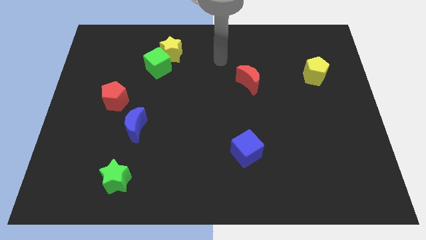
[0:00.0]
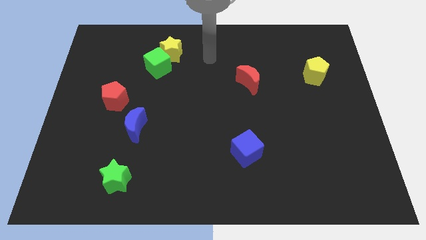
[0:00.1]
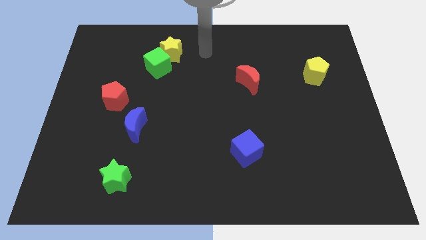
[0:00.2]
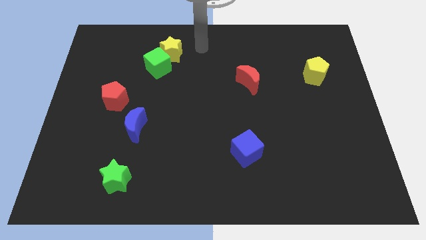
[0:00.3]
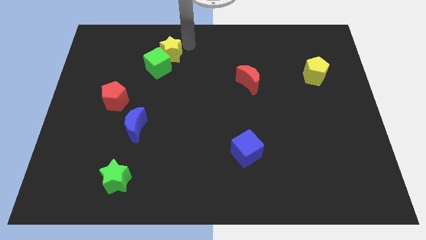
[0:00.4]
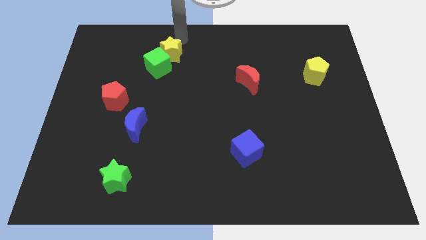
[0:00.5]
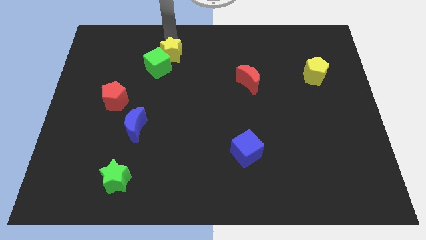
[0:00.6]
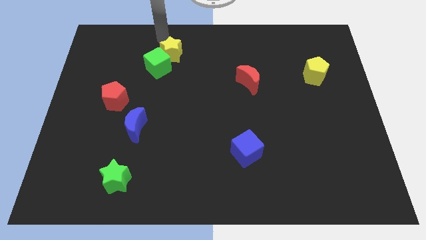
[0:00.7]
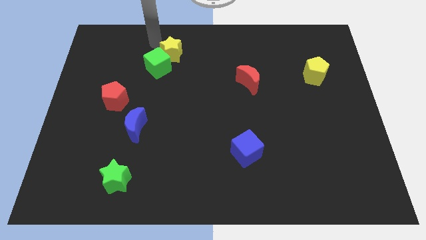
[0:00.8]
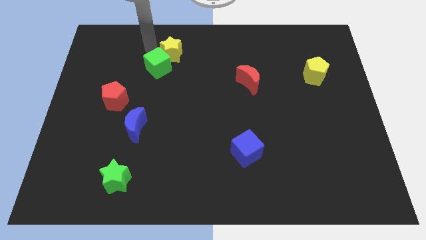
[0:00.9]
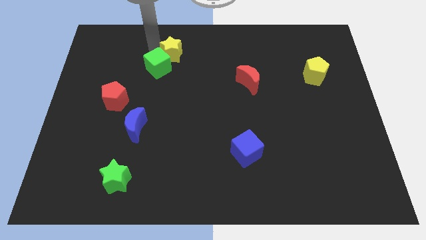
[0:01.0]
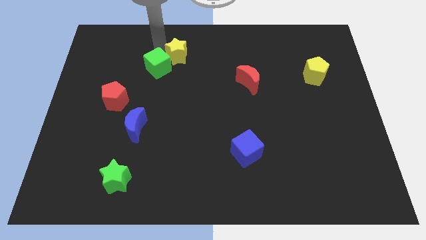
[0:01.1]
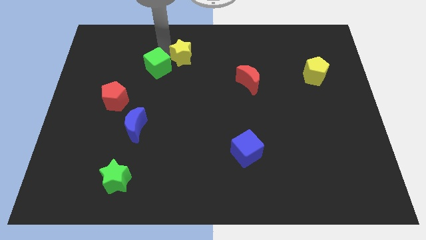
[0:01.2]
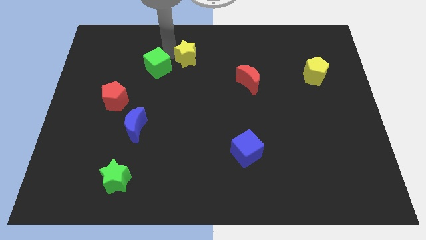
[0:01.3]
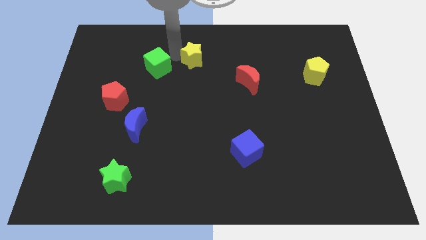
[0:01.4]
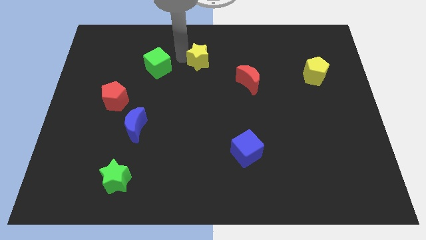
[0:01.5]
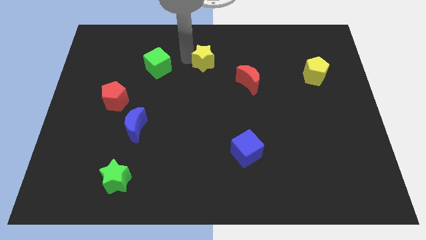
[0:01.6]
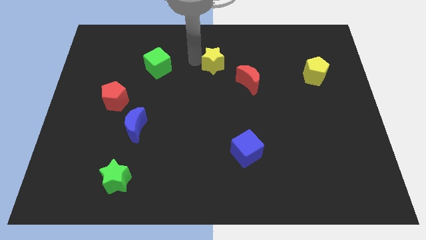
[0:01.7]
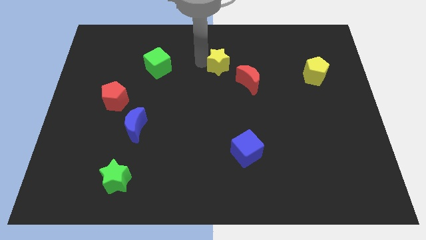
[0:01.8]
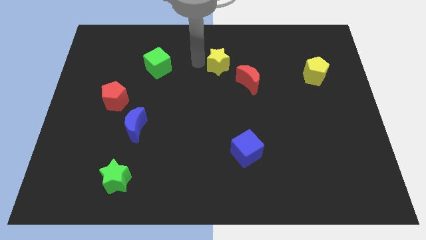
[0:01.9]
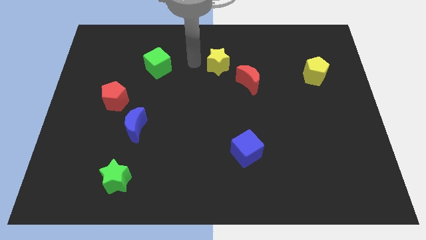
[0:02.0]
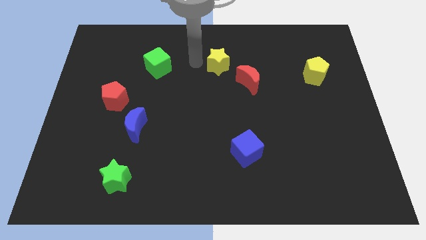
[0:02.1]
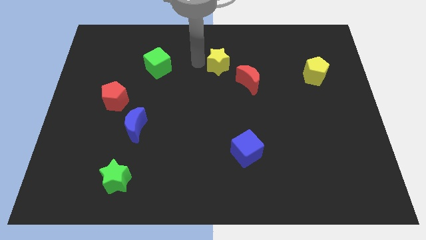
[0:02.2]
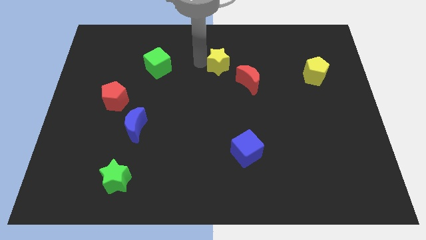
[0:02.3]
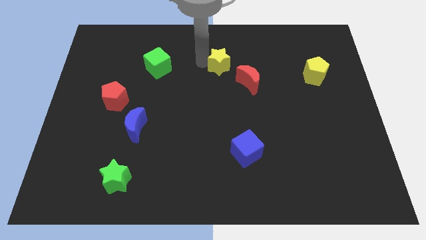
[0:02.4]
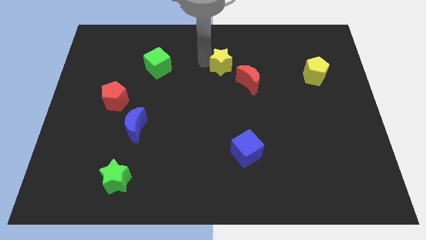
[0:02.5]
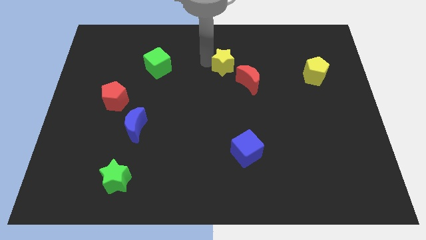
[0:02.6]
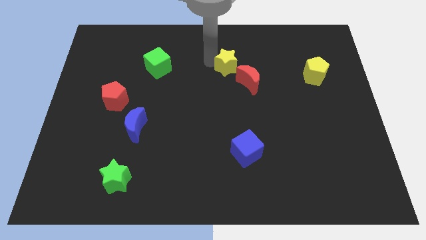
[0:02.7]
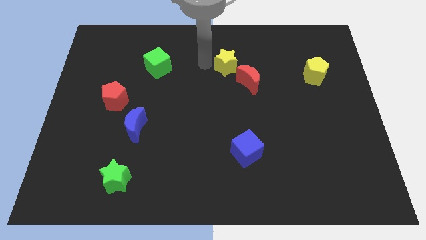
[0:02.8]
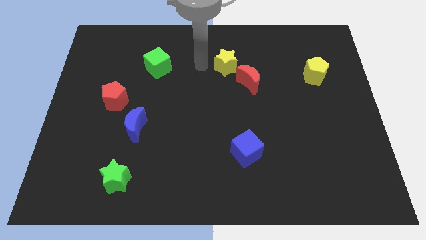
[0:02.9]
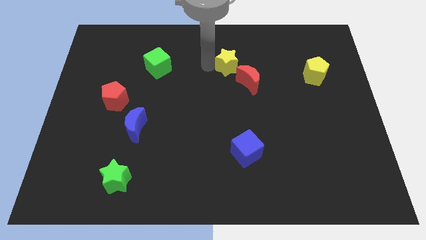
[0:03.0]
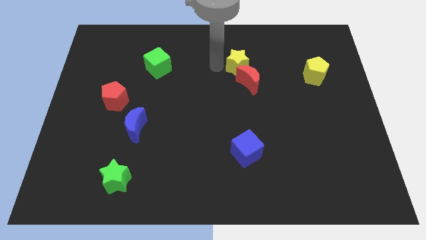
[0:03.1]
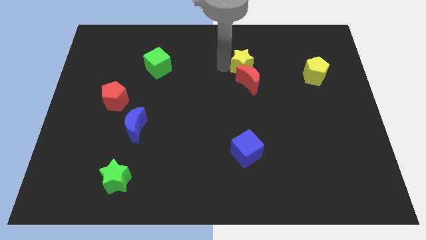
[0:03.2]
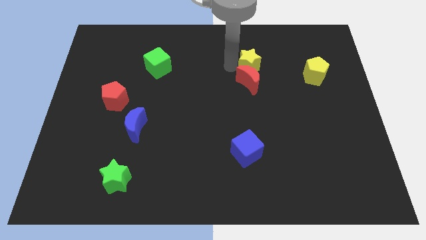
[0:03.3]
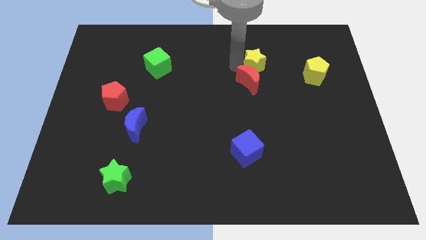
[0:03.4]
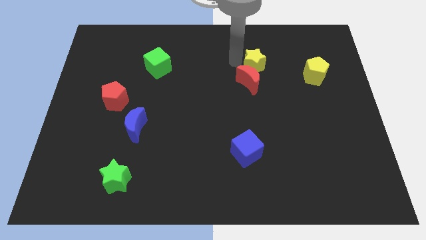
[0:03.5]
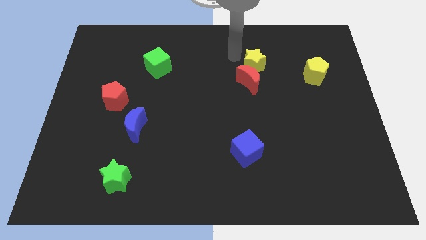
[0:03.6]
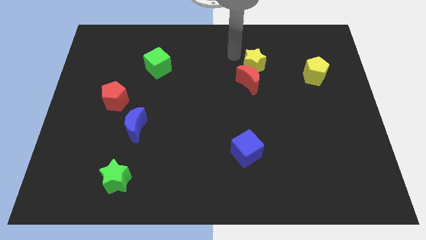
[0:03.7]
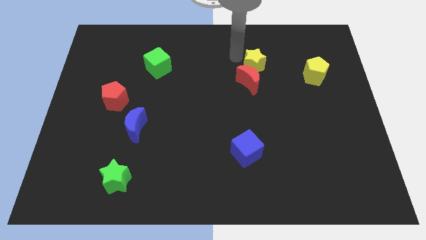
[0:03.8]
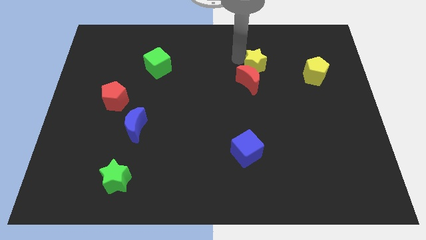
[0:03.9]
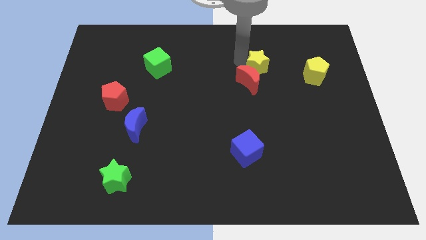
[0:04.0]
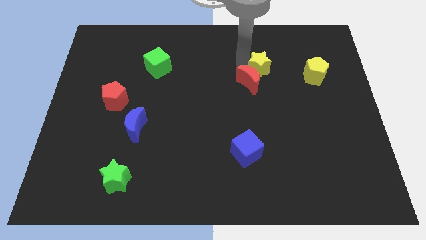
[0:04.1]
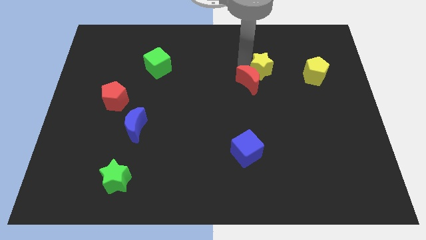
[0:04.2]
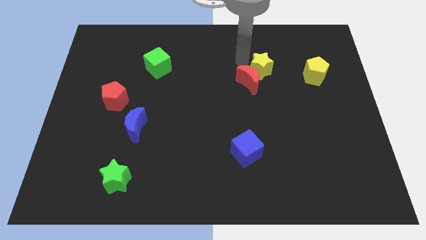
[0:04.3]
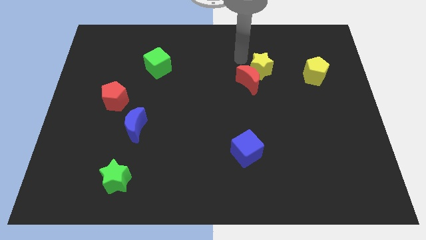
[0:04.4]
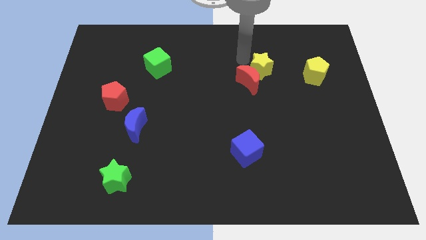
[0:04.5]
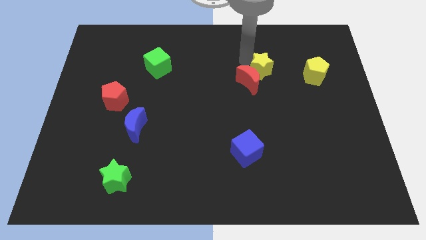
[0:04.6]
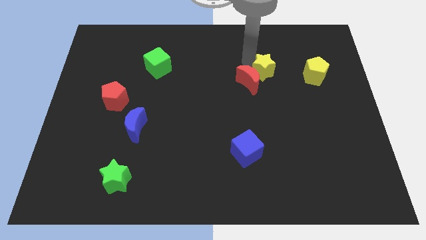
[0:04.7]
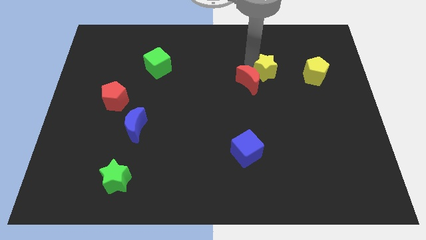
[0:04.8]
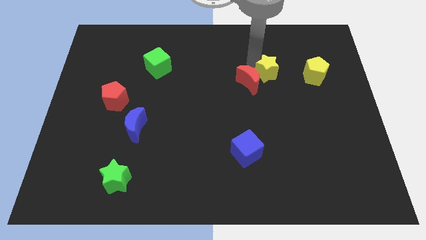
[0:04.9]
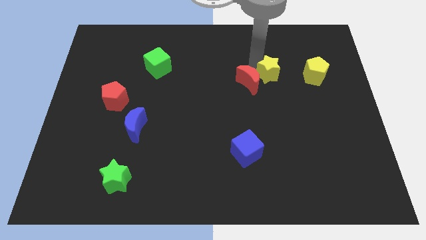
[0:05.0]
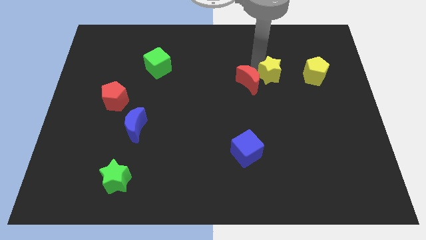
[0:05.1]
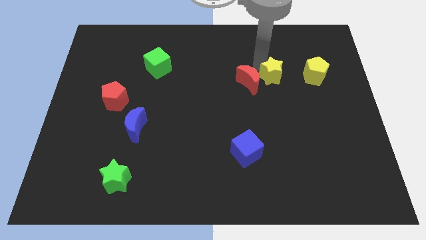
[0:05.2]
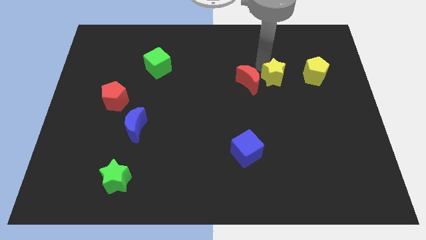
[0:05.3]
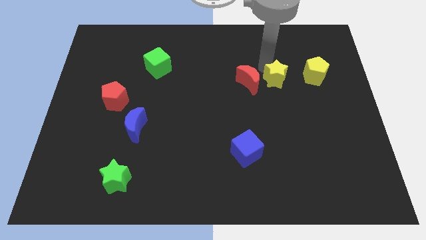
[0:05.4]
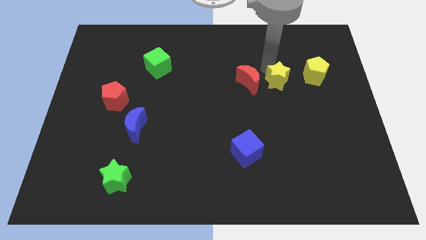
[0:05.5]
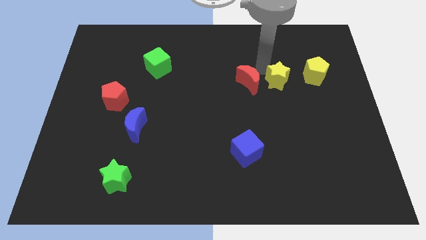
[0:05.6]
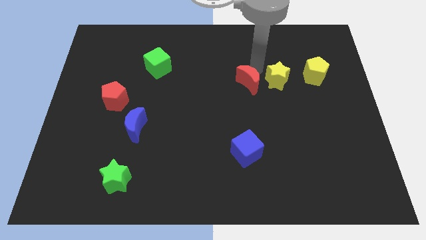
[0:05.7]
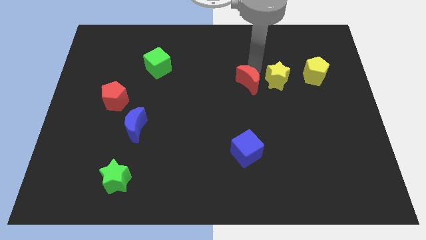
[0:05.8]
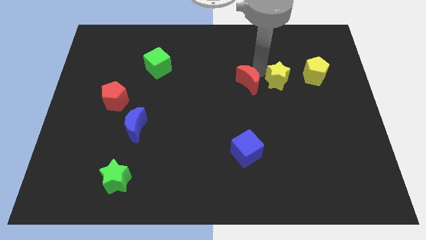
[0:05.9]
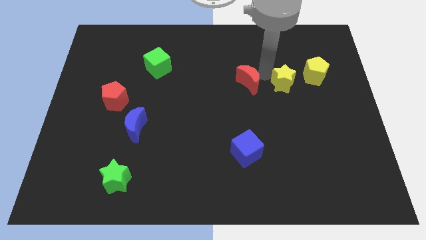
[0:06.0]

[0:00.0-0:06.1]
push the yellow star to the bottom left side of the yellow pentagon

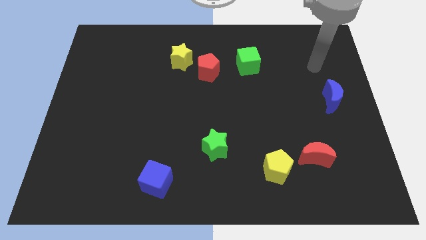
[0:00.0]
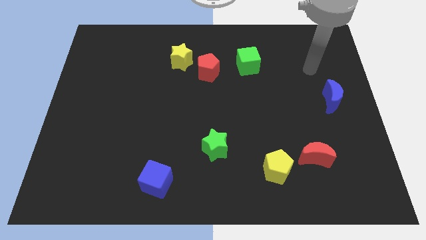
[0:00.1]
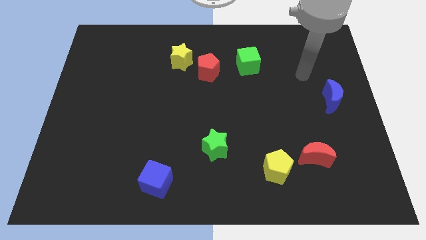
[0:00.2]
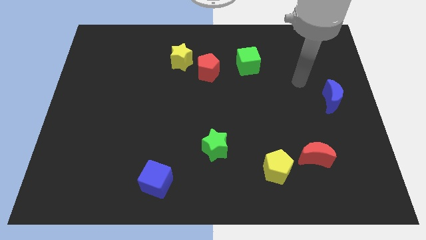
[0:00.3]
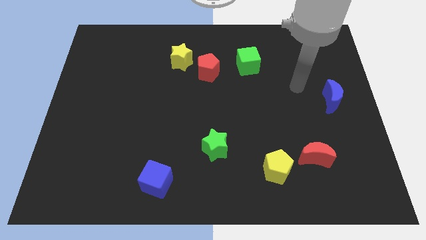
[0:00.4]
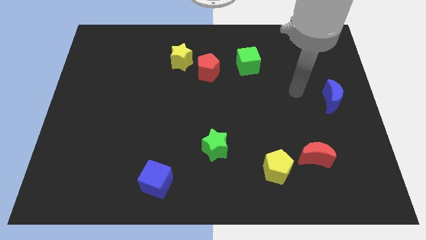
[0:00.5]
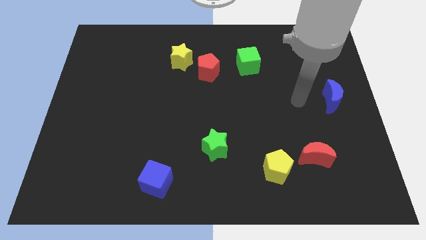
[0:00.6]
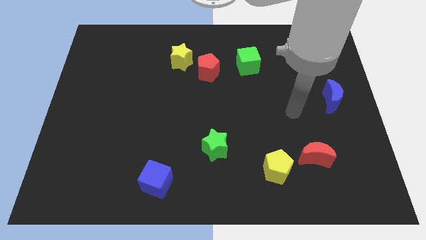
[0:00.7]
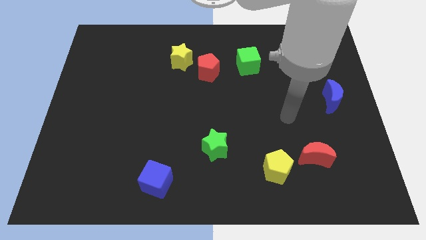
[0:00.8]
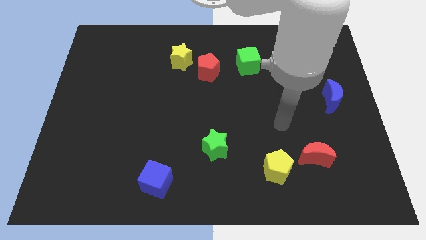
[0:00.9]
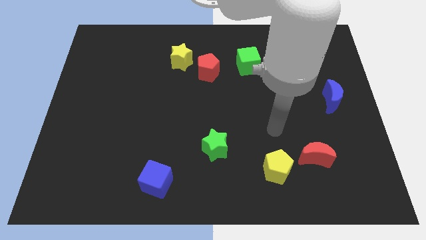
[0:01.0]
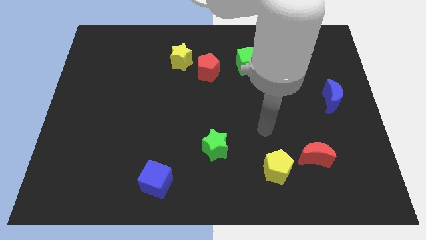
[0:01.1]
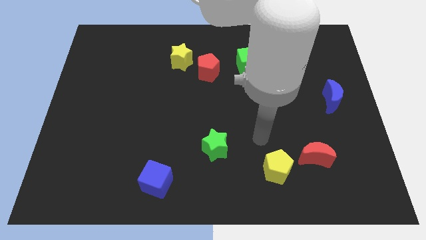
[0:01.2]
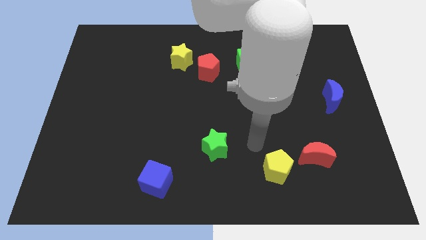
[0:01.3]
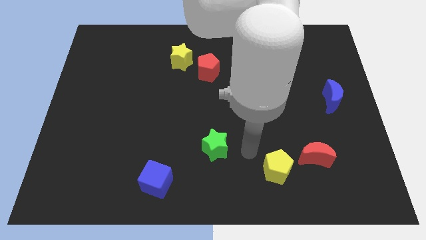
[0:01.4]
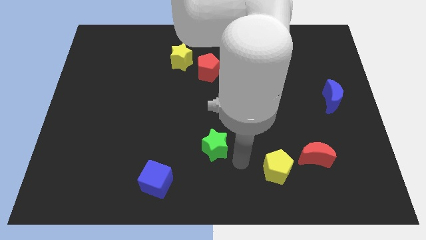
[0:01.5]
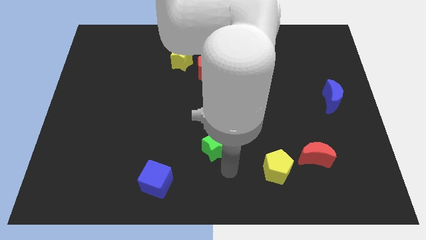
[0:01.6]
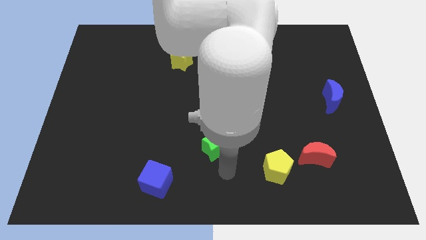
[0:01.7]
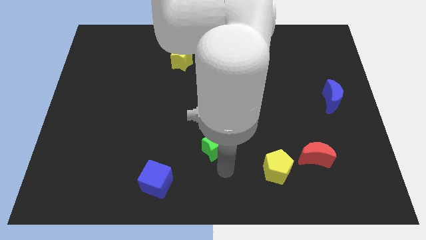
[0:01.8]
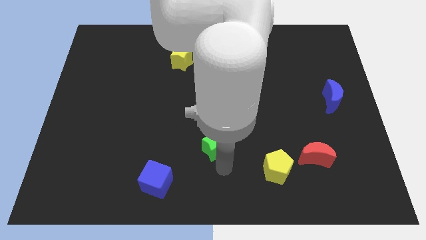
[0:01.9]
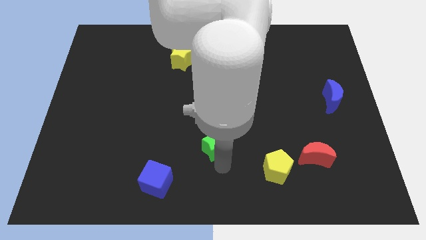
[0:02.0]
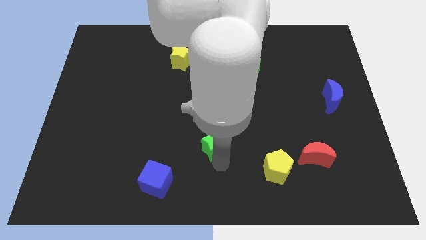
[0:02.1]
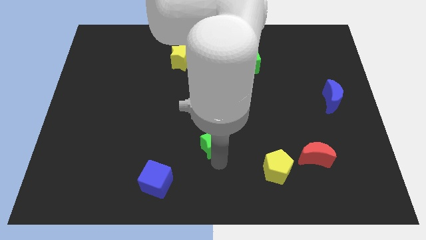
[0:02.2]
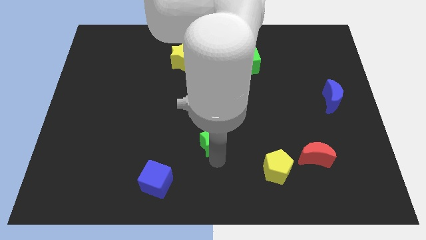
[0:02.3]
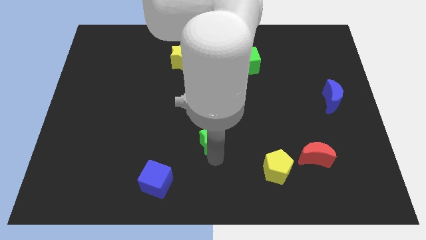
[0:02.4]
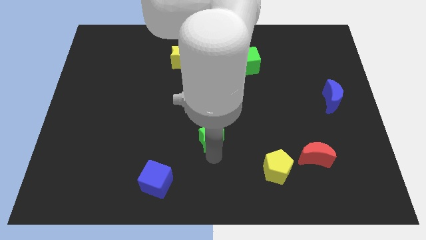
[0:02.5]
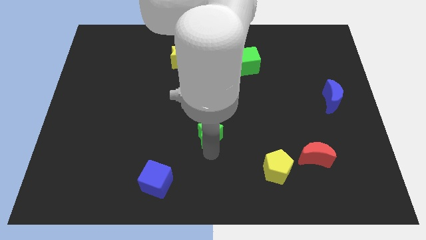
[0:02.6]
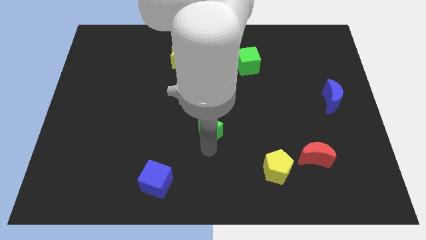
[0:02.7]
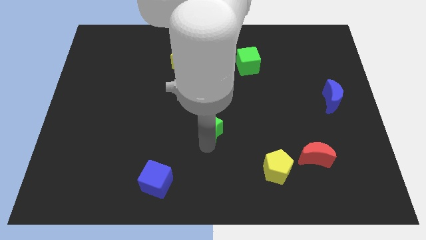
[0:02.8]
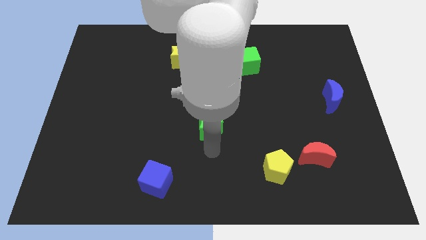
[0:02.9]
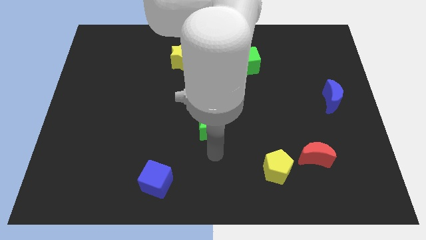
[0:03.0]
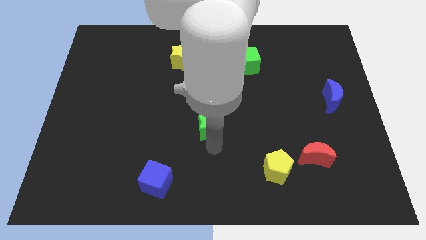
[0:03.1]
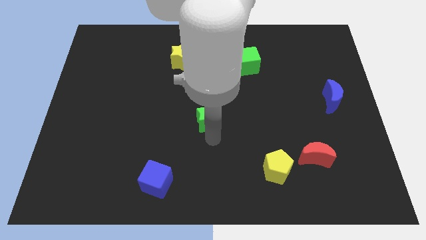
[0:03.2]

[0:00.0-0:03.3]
slide the green star to the bottom side of the red pentagon
